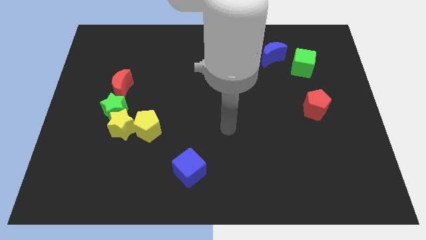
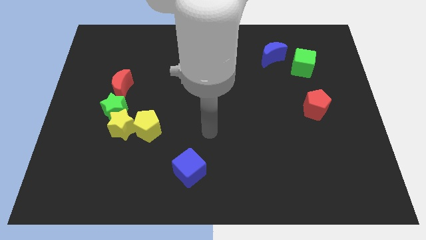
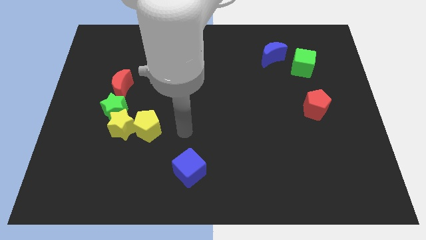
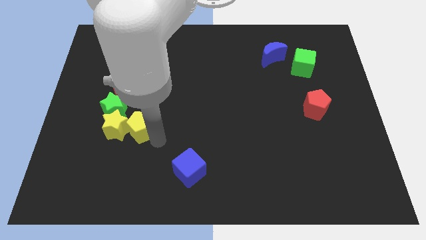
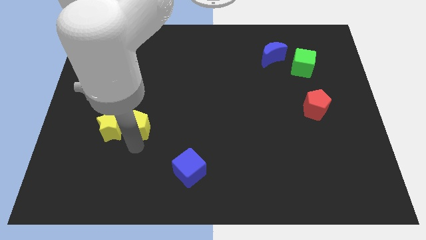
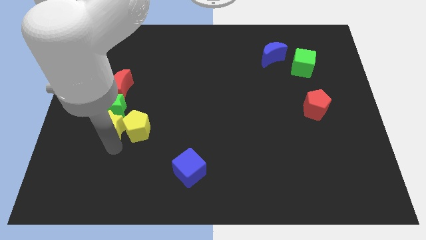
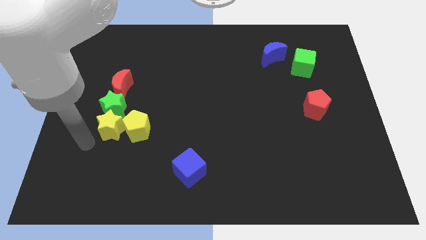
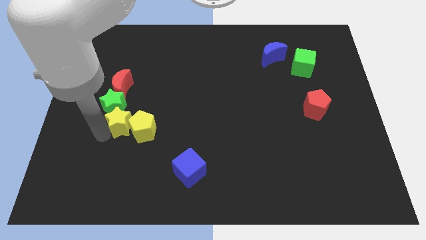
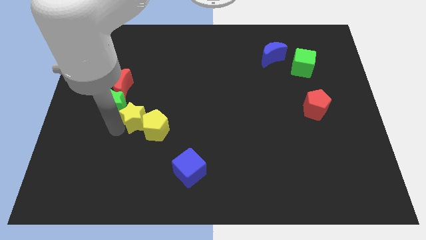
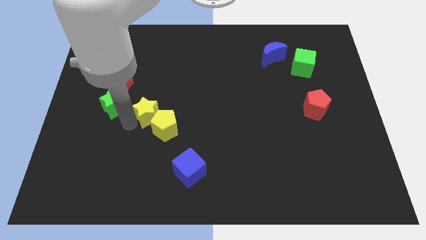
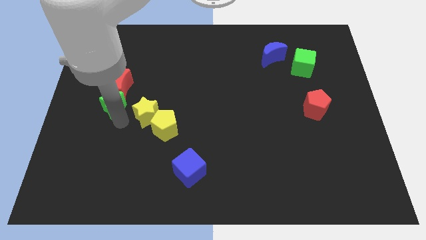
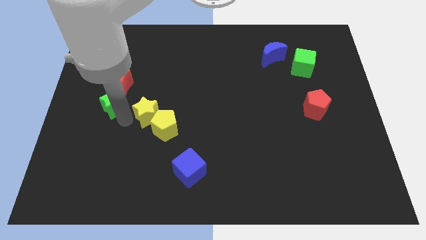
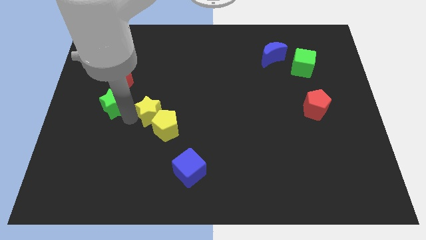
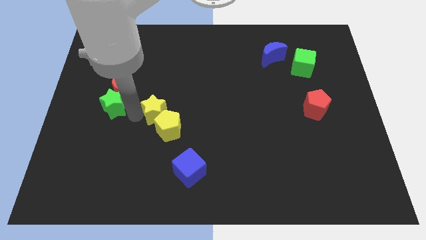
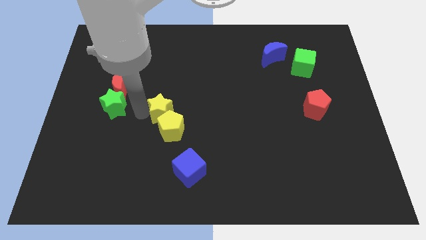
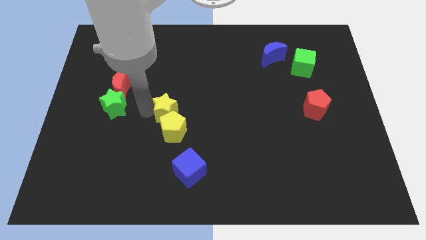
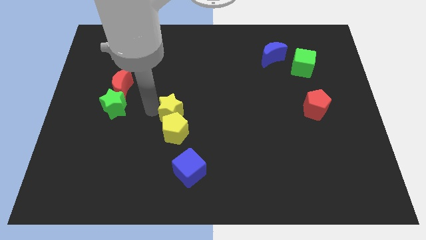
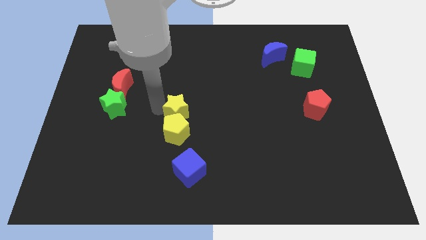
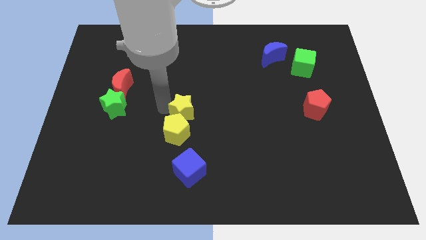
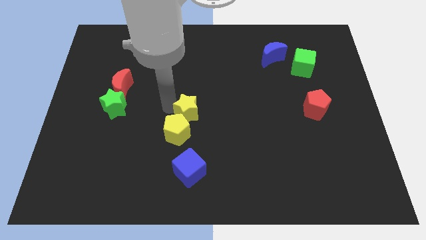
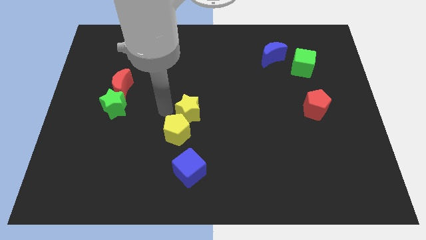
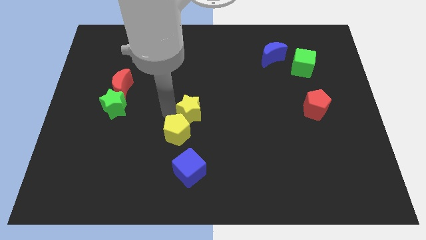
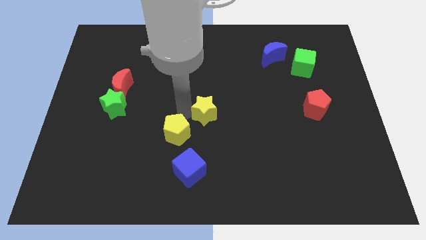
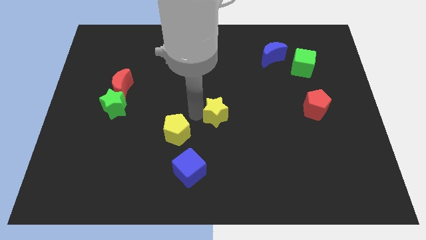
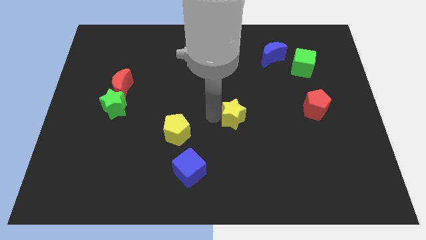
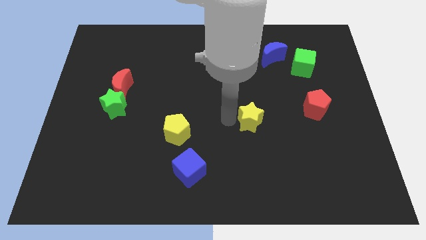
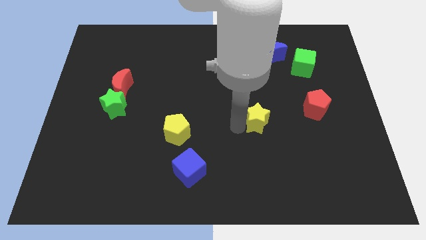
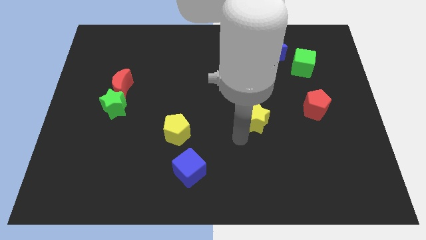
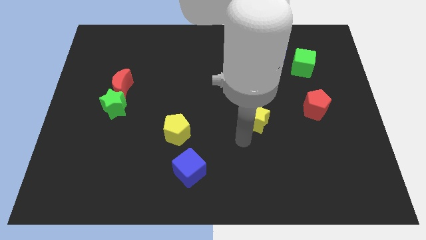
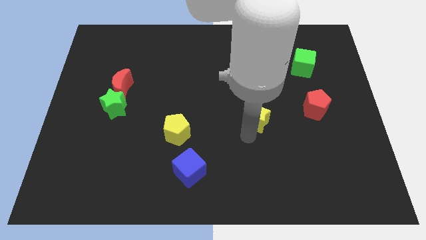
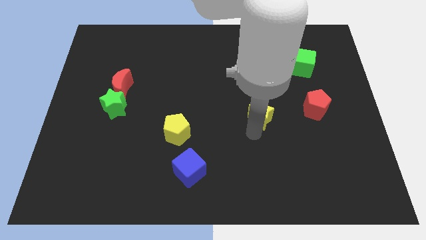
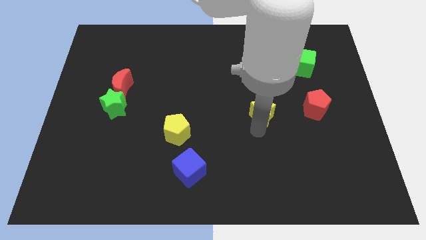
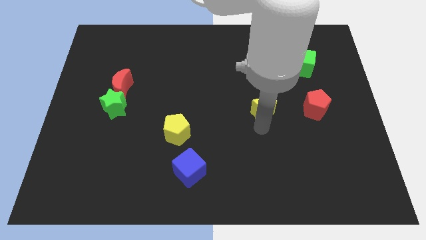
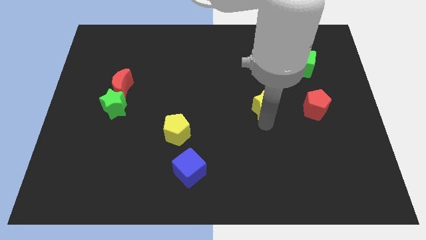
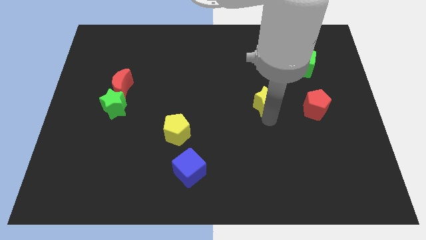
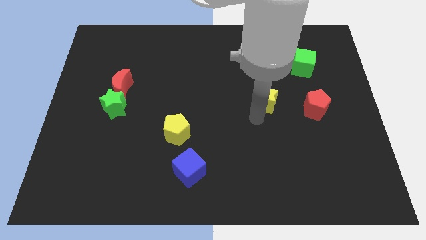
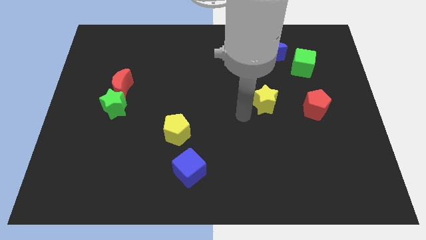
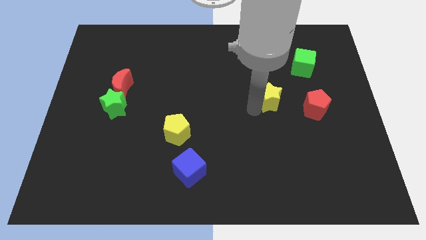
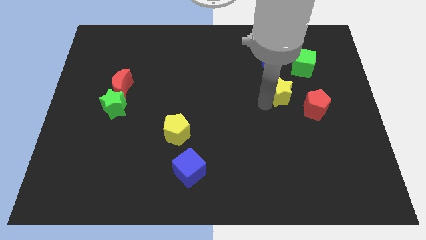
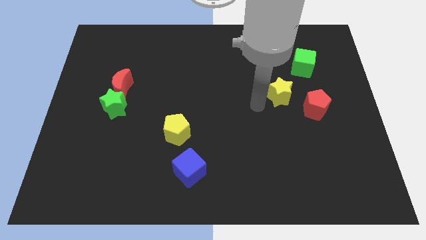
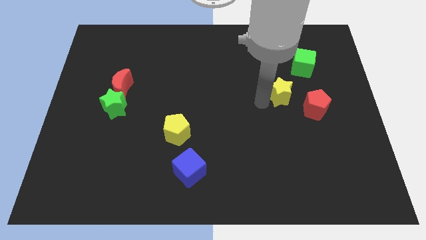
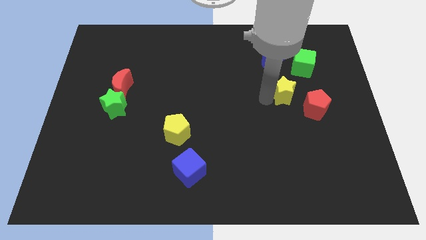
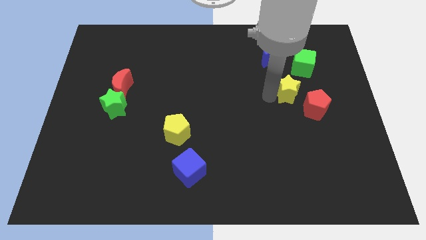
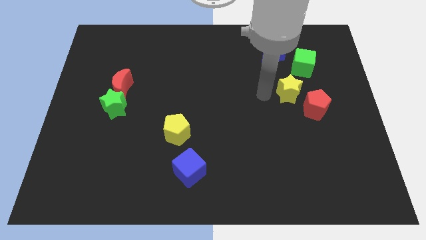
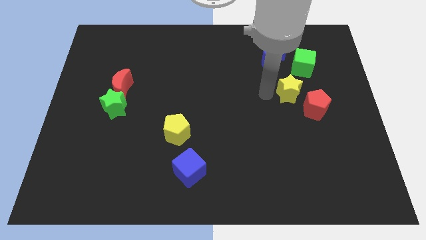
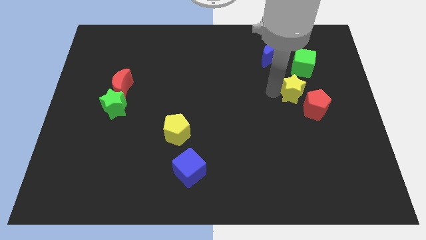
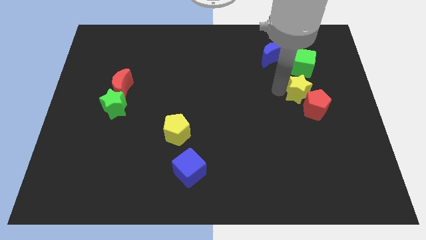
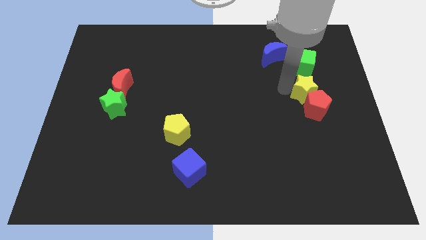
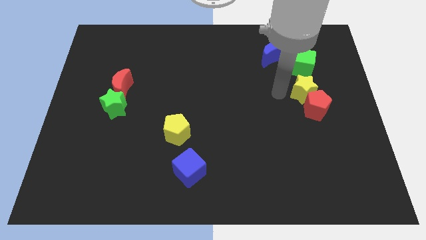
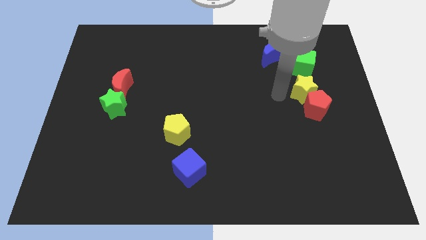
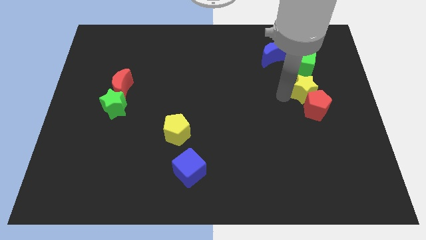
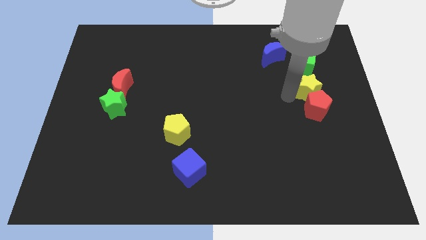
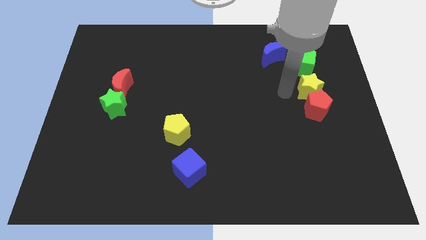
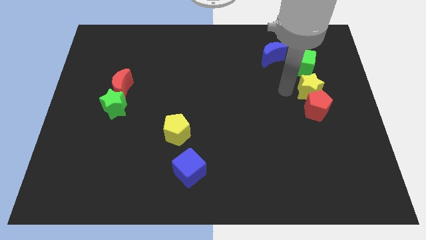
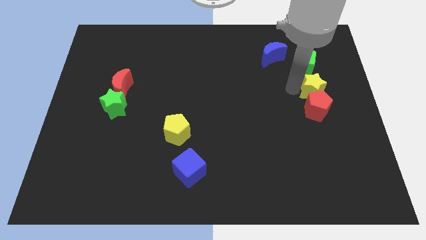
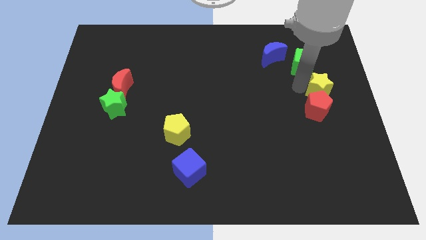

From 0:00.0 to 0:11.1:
slide the yellow star to the center right

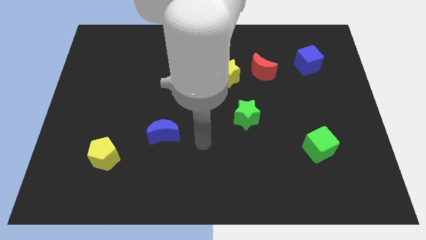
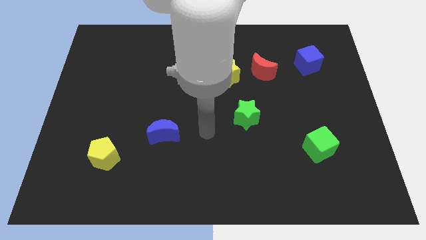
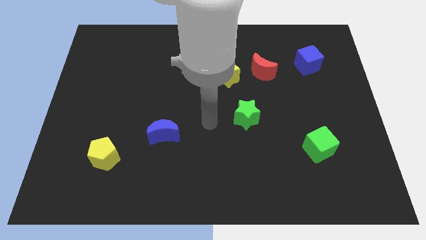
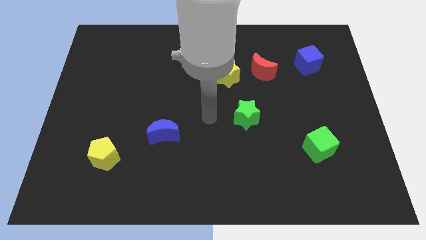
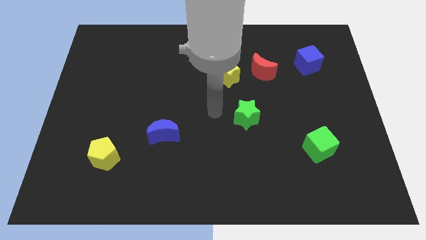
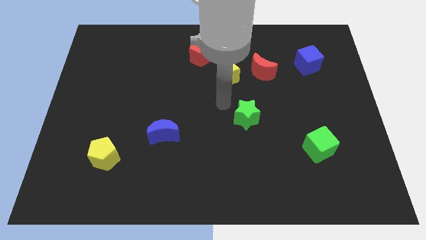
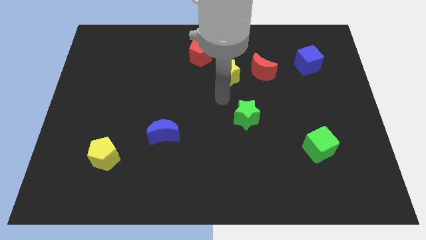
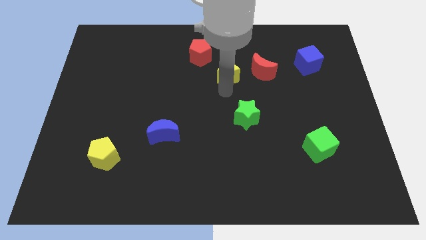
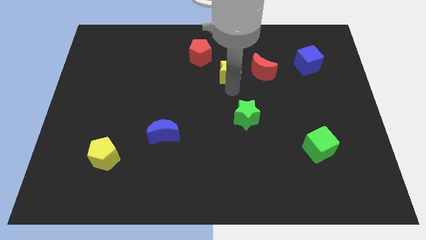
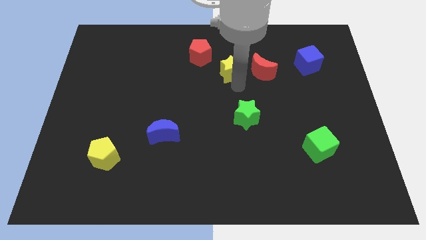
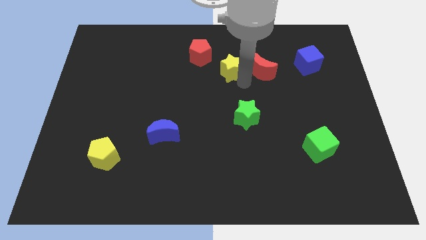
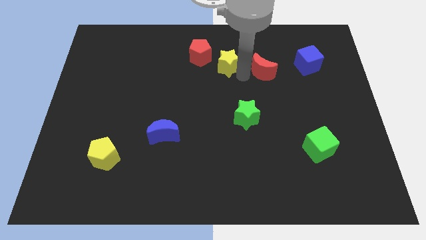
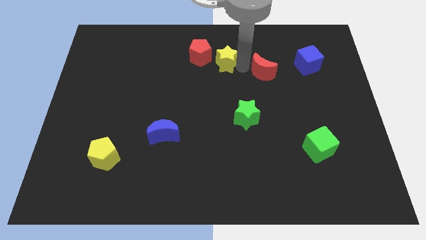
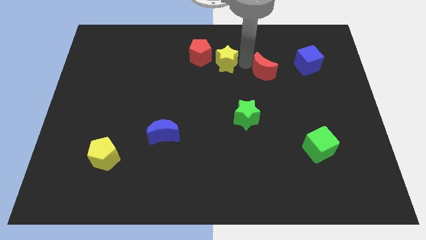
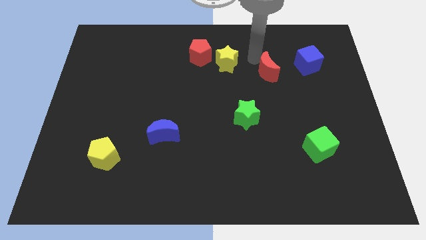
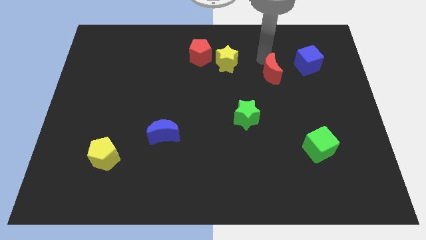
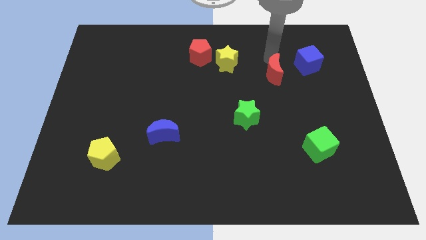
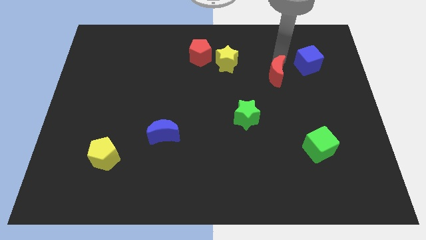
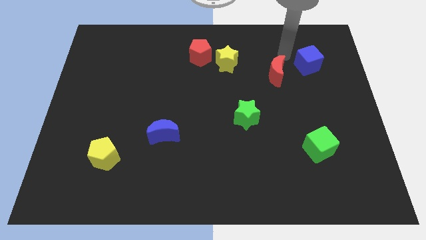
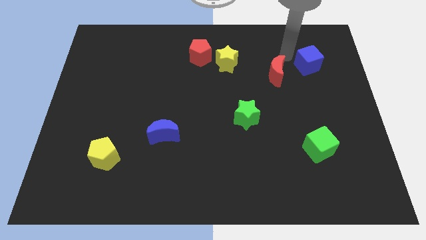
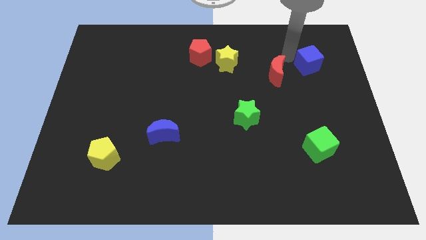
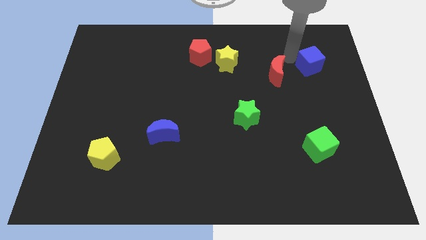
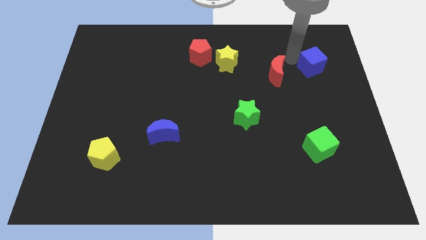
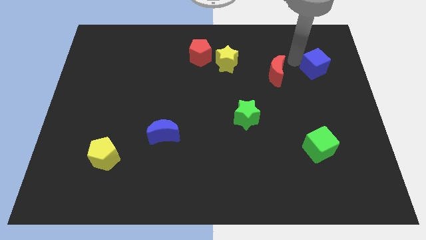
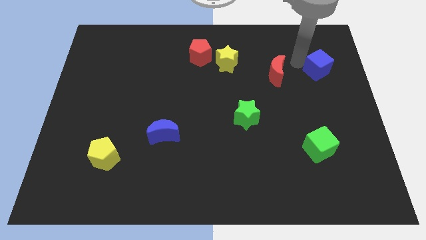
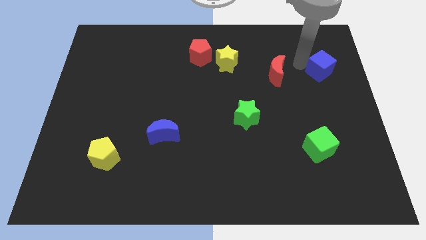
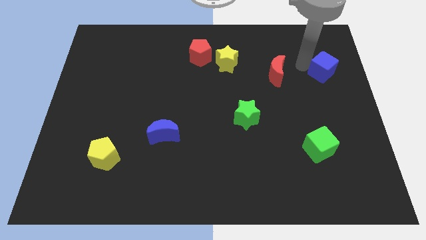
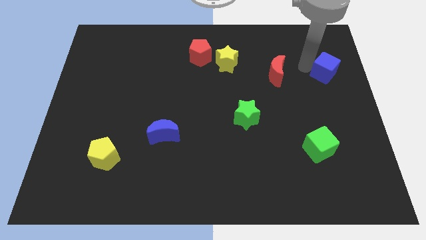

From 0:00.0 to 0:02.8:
slide the blue cube to the center right
